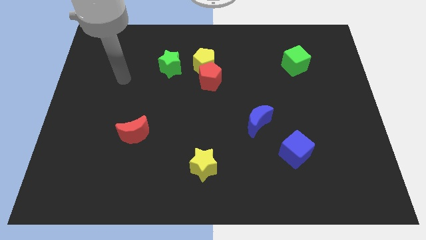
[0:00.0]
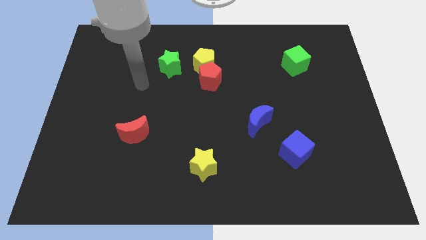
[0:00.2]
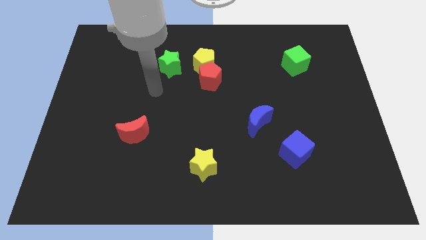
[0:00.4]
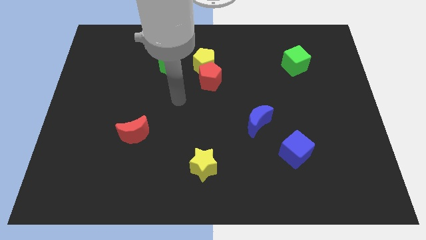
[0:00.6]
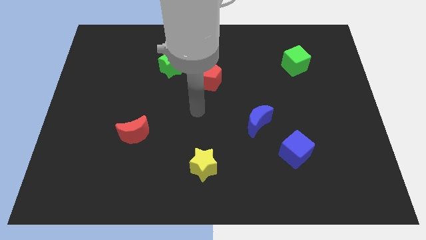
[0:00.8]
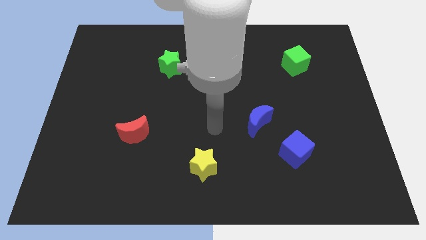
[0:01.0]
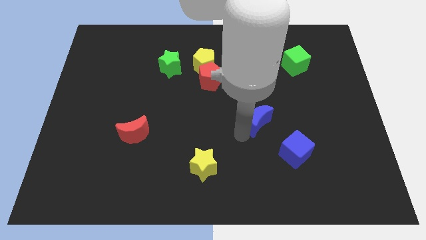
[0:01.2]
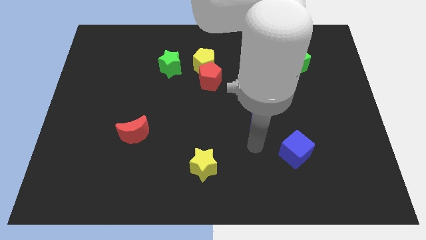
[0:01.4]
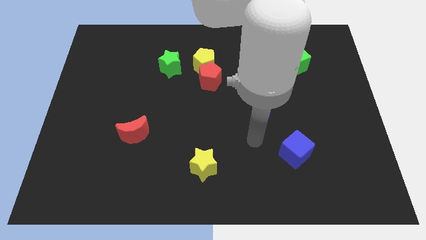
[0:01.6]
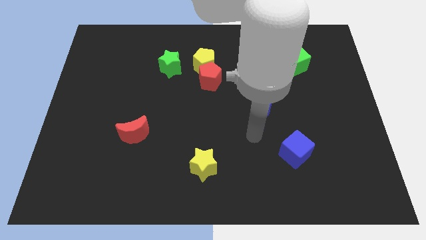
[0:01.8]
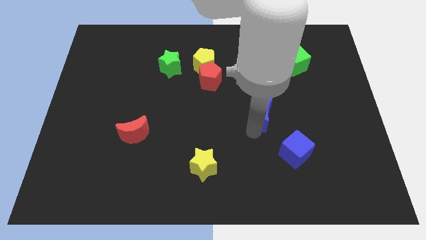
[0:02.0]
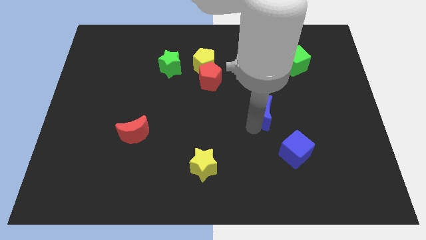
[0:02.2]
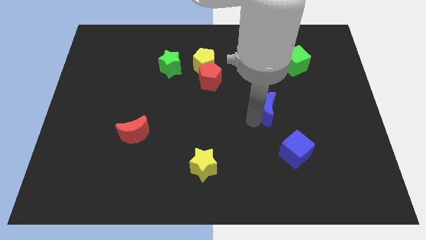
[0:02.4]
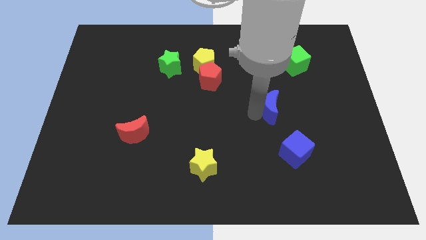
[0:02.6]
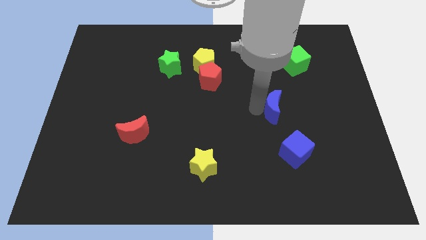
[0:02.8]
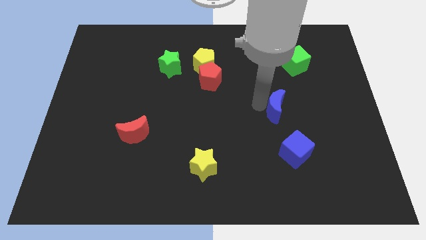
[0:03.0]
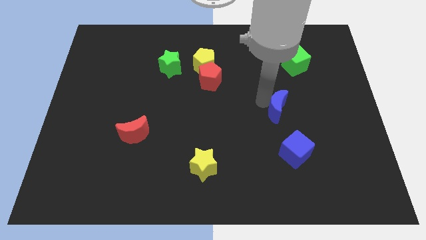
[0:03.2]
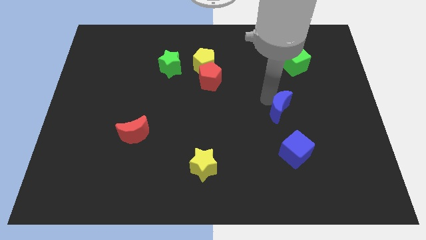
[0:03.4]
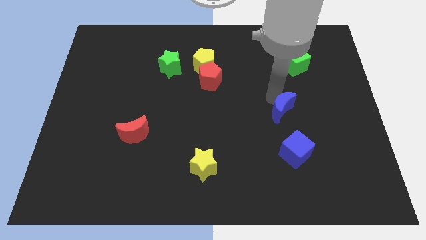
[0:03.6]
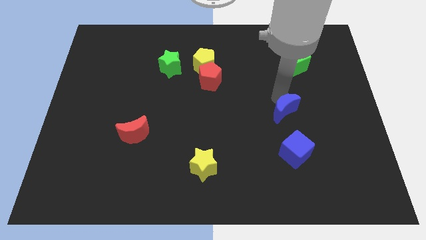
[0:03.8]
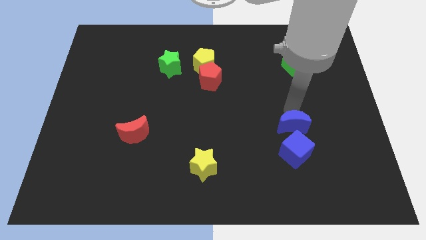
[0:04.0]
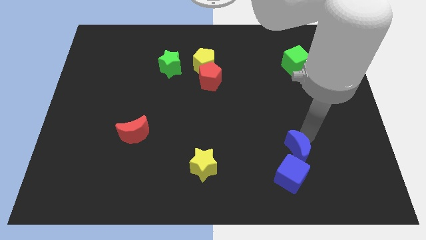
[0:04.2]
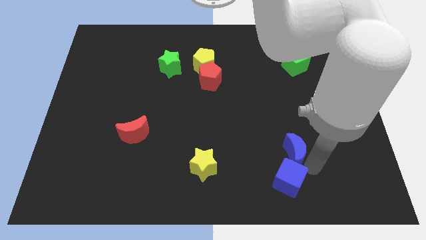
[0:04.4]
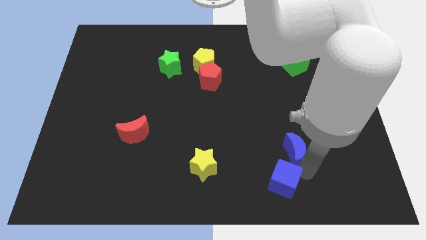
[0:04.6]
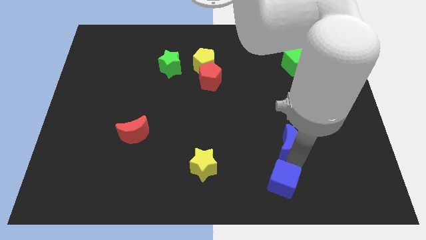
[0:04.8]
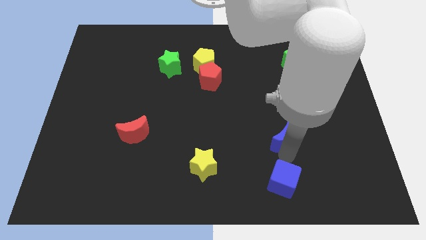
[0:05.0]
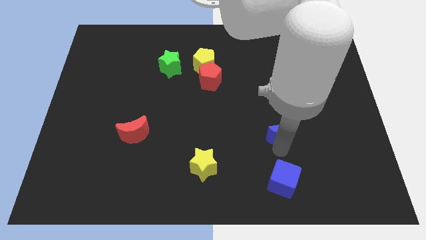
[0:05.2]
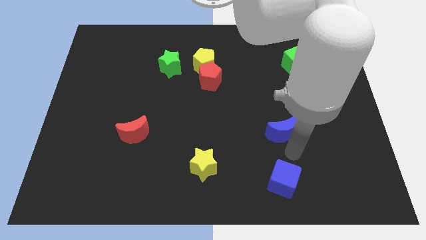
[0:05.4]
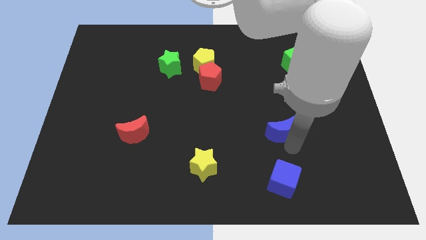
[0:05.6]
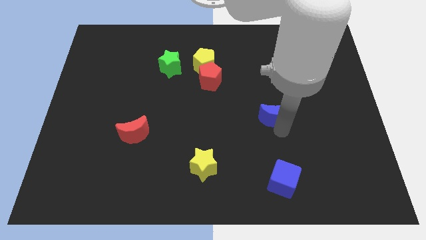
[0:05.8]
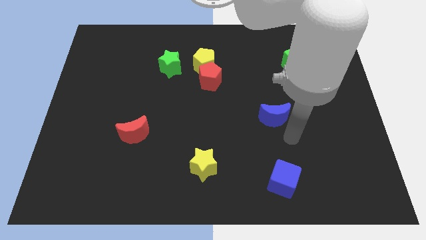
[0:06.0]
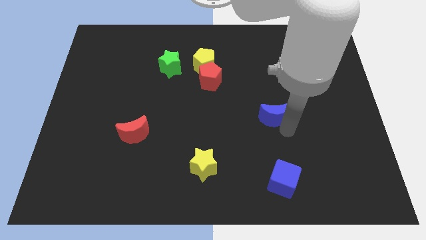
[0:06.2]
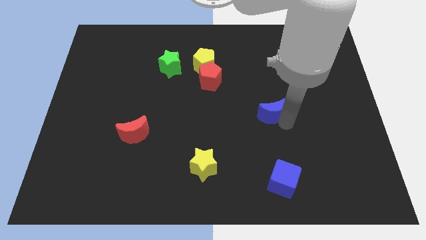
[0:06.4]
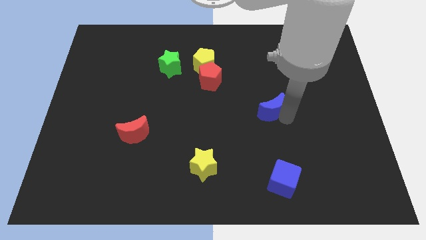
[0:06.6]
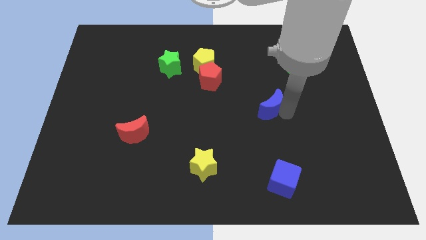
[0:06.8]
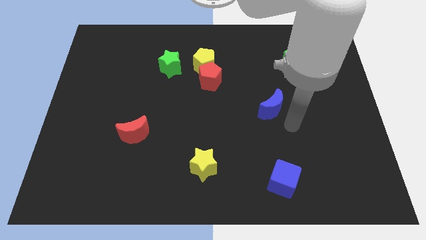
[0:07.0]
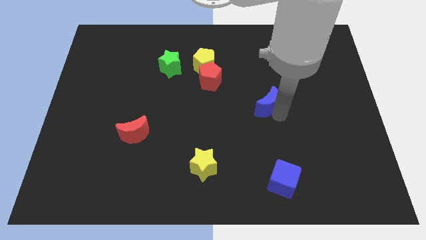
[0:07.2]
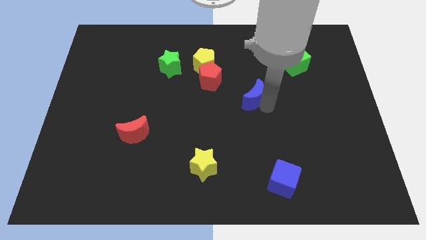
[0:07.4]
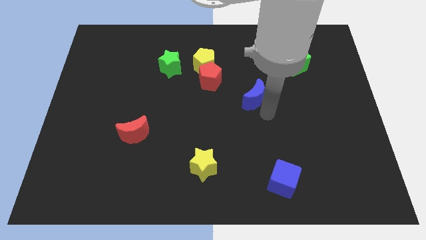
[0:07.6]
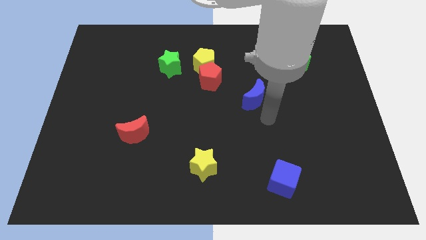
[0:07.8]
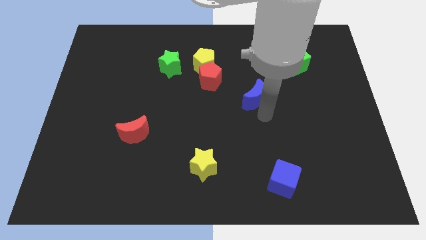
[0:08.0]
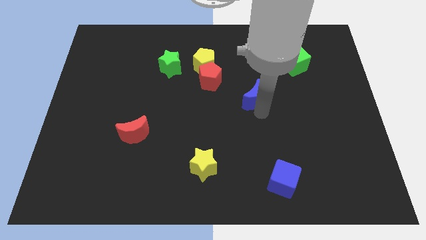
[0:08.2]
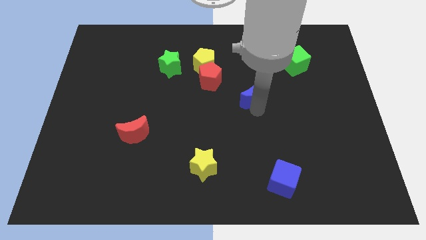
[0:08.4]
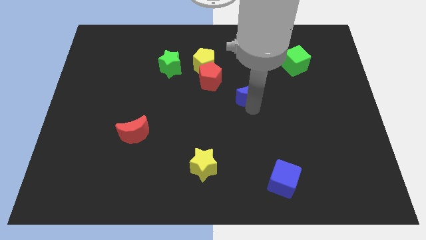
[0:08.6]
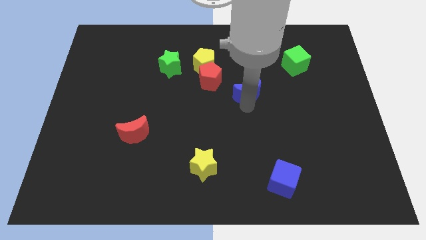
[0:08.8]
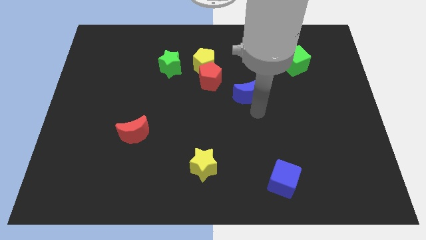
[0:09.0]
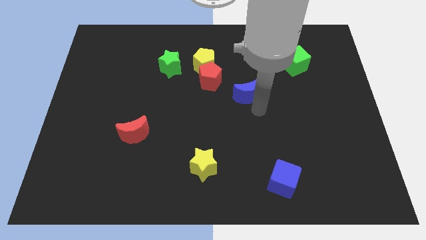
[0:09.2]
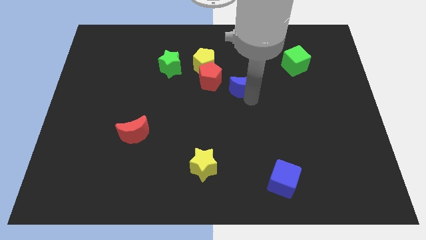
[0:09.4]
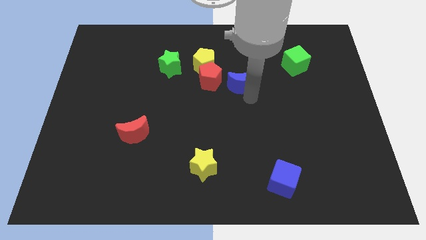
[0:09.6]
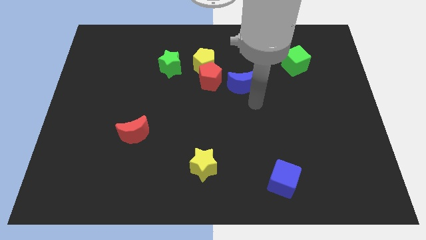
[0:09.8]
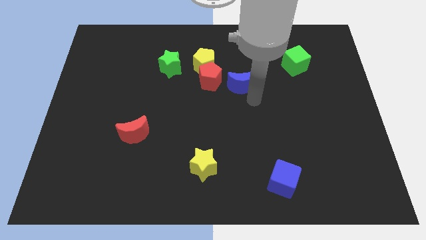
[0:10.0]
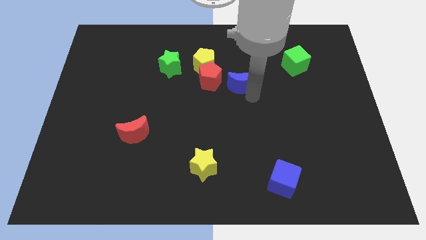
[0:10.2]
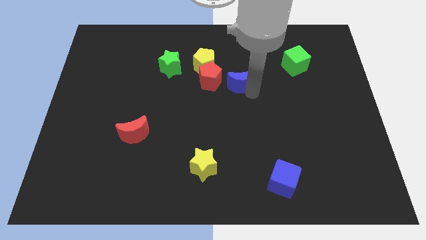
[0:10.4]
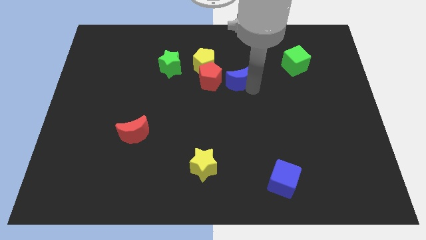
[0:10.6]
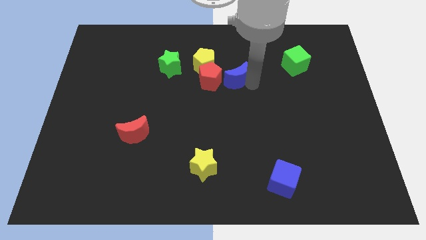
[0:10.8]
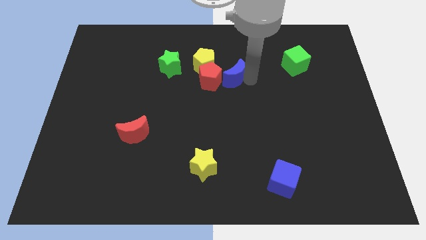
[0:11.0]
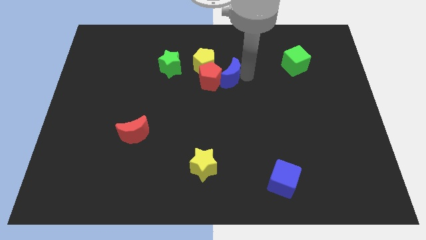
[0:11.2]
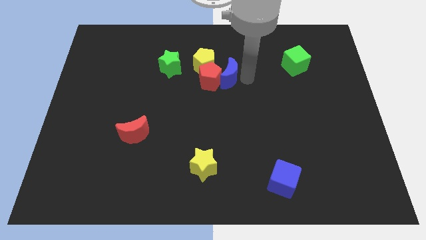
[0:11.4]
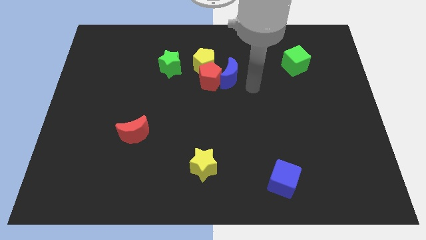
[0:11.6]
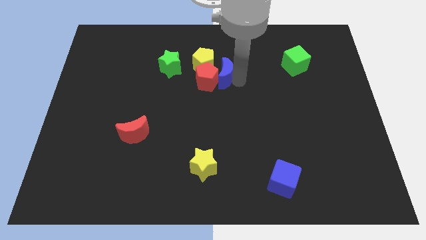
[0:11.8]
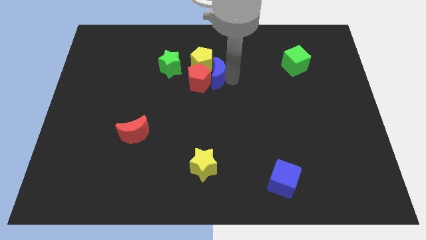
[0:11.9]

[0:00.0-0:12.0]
move the blue moon next to the yellow pentagon

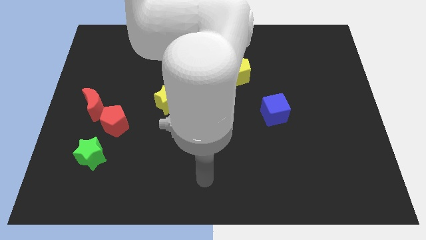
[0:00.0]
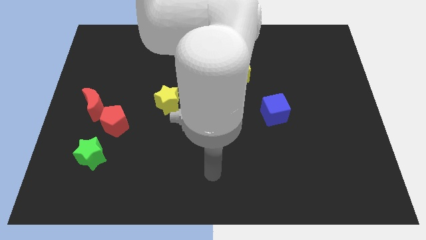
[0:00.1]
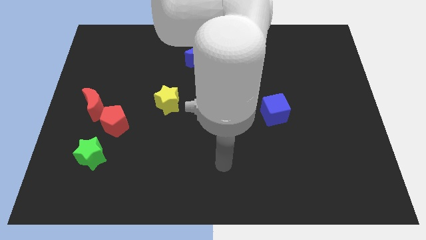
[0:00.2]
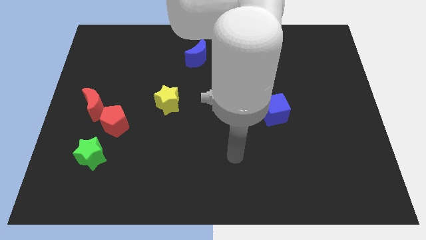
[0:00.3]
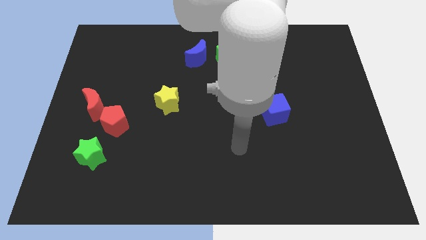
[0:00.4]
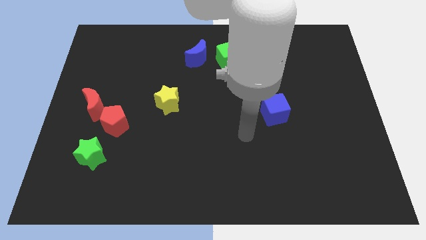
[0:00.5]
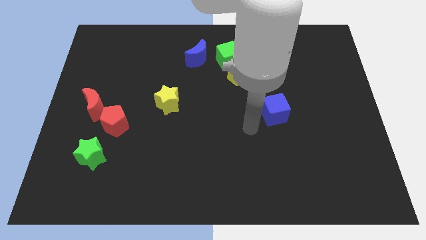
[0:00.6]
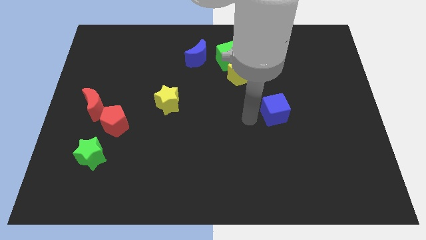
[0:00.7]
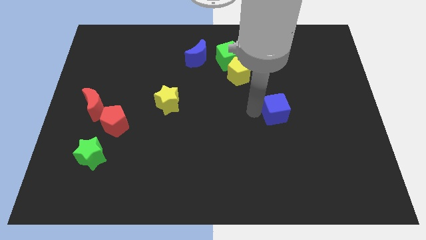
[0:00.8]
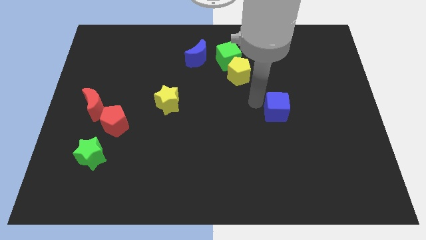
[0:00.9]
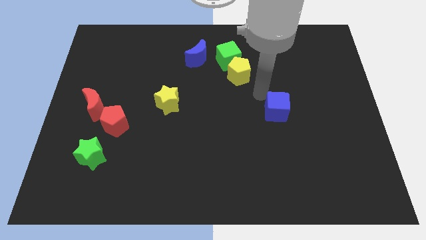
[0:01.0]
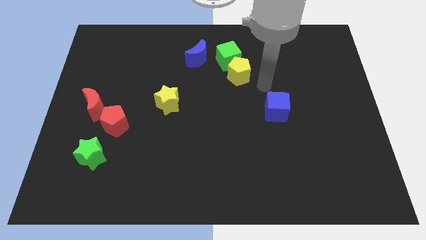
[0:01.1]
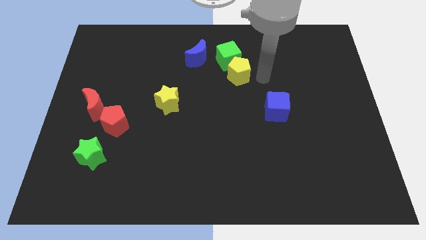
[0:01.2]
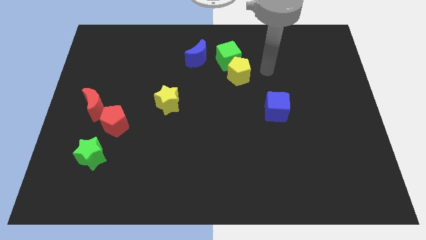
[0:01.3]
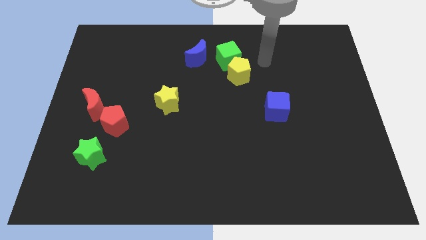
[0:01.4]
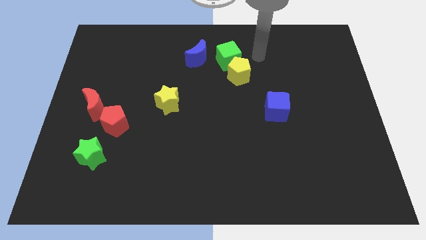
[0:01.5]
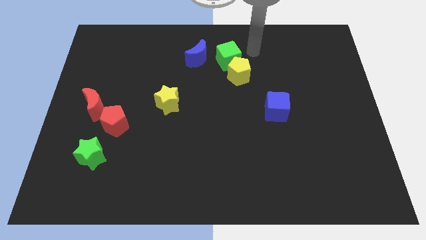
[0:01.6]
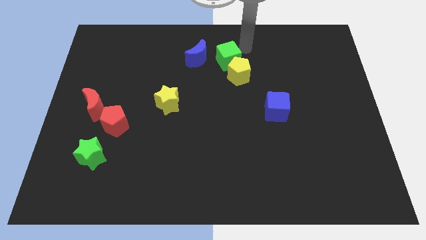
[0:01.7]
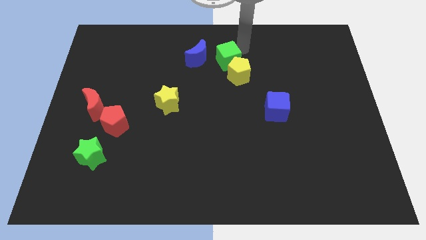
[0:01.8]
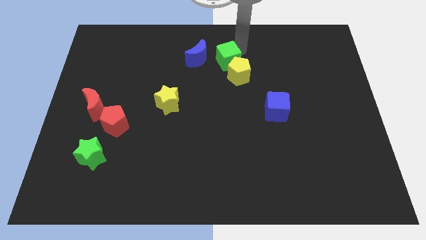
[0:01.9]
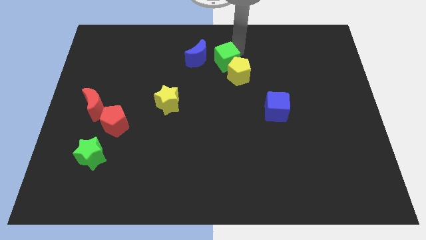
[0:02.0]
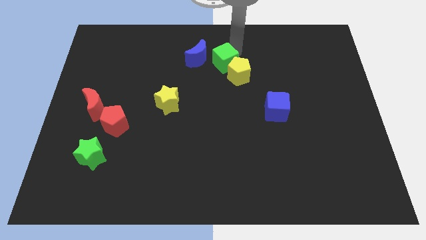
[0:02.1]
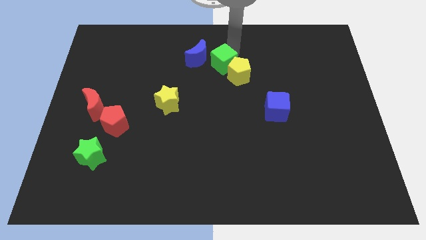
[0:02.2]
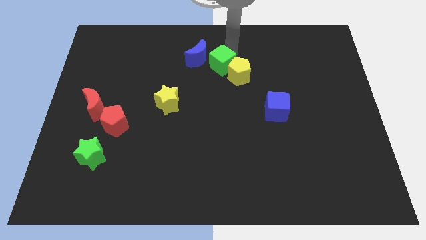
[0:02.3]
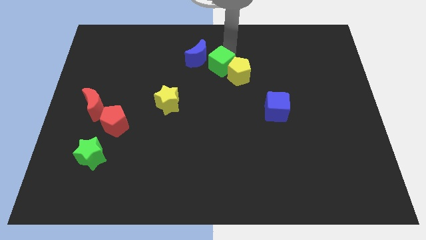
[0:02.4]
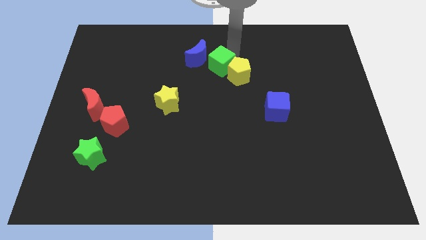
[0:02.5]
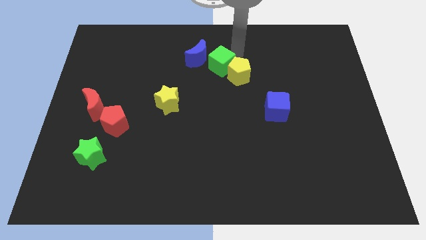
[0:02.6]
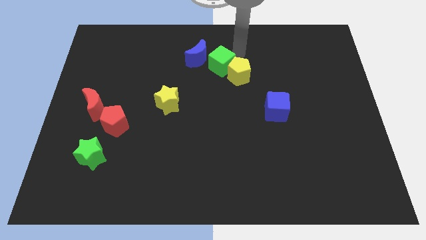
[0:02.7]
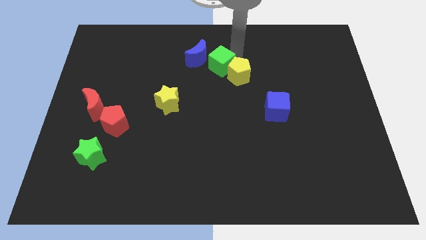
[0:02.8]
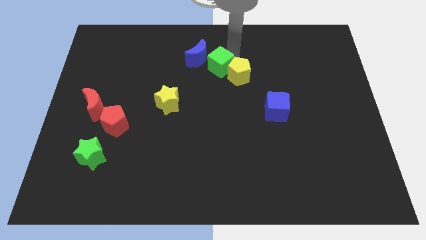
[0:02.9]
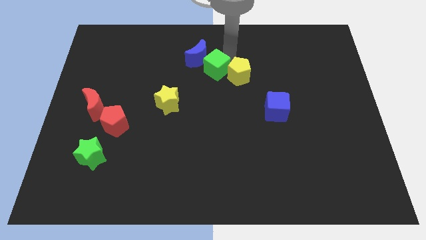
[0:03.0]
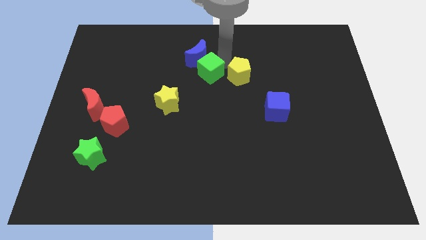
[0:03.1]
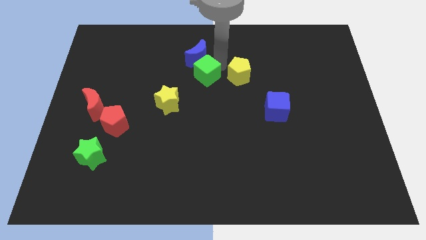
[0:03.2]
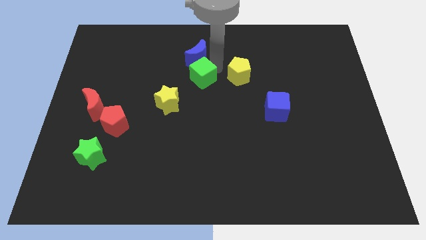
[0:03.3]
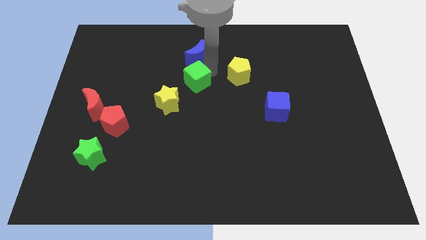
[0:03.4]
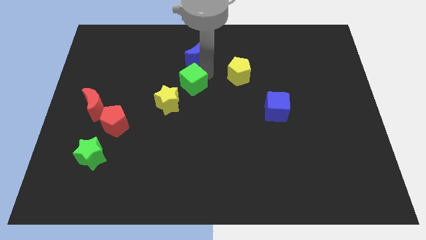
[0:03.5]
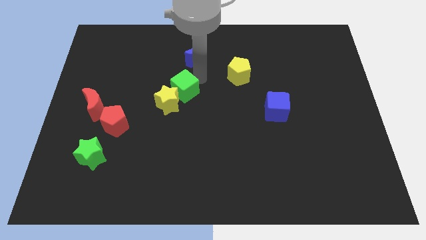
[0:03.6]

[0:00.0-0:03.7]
slide the green cube close to the yellow star
